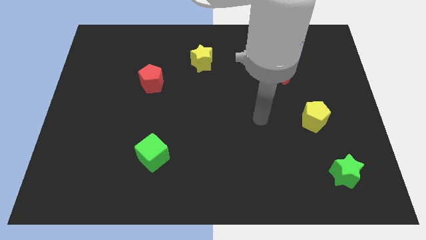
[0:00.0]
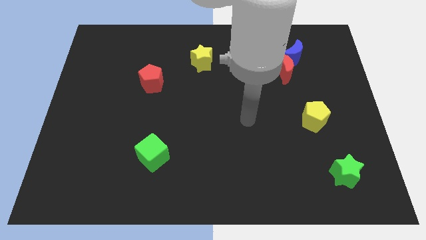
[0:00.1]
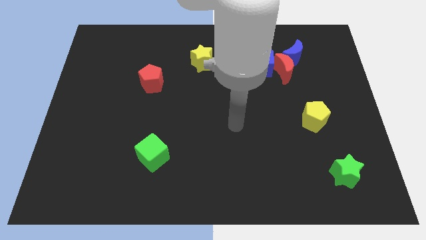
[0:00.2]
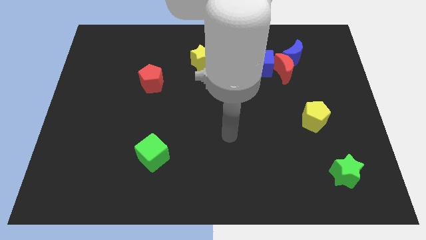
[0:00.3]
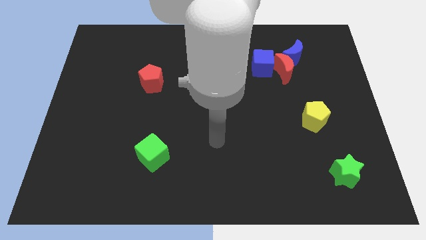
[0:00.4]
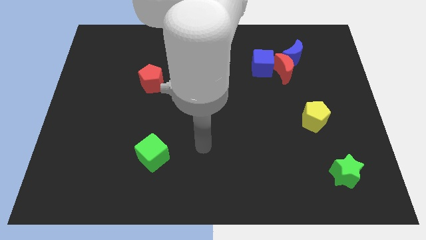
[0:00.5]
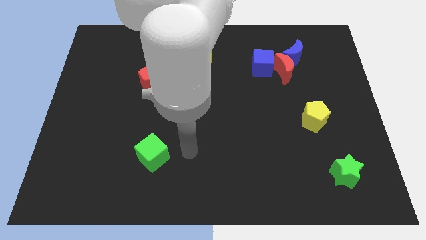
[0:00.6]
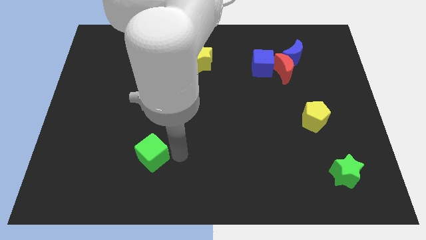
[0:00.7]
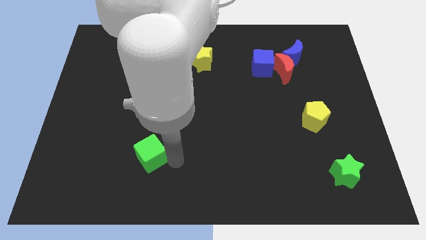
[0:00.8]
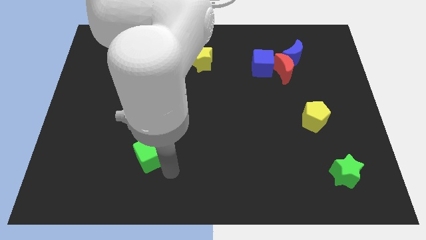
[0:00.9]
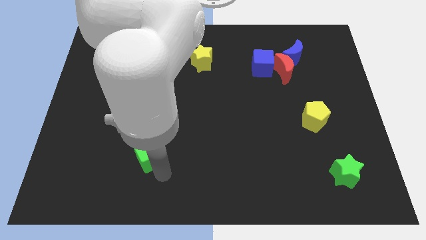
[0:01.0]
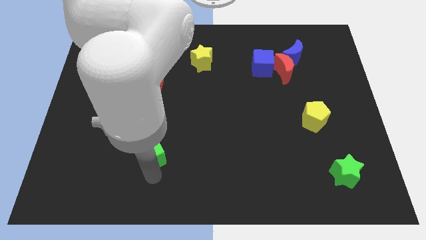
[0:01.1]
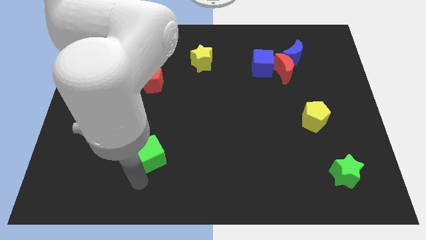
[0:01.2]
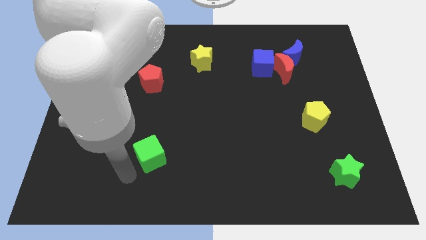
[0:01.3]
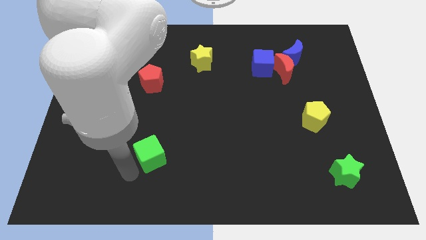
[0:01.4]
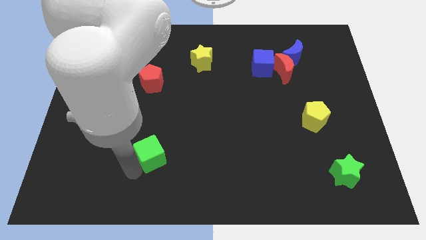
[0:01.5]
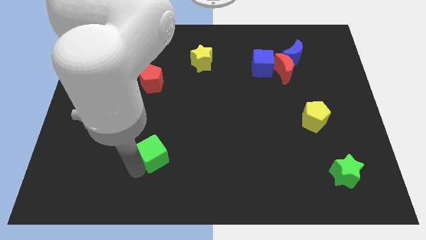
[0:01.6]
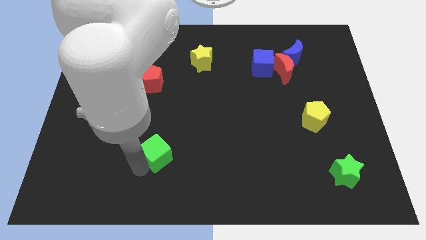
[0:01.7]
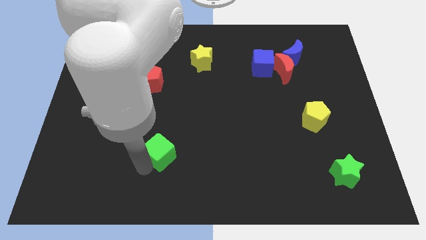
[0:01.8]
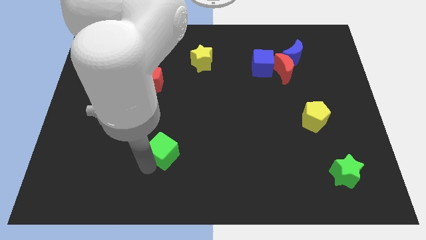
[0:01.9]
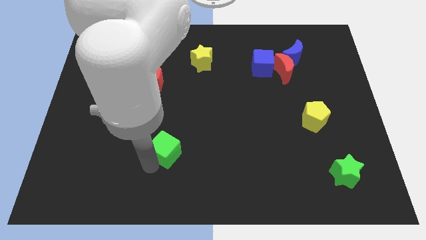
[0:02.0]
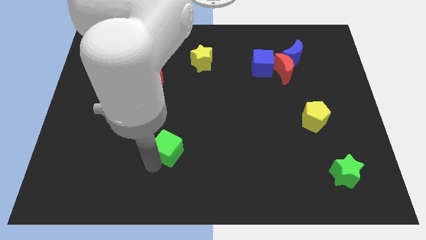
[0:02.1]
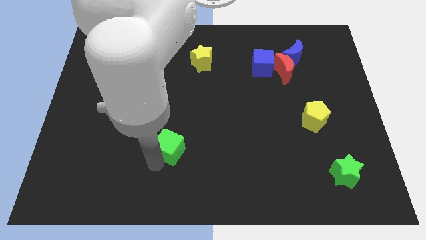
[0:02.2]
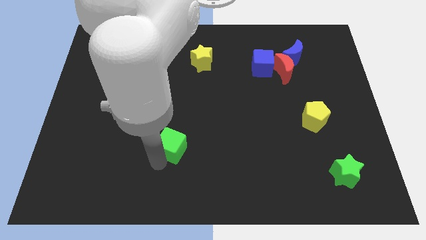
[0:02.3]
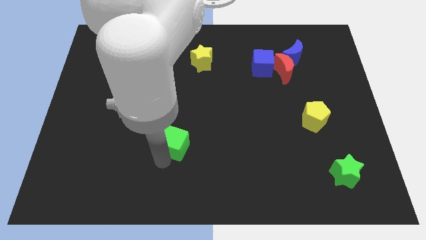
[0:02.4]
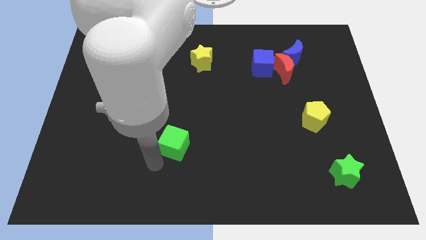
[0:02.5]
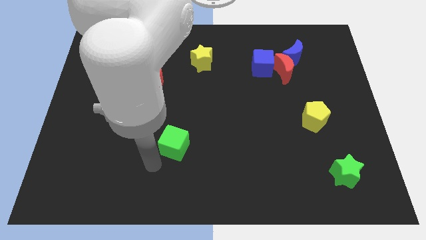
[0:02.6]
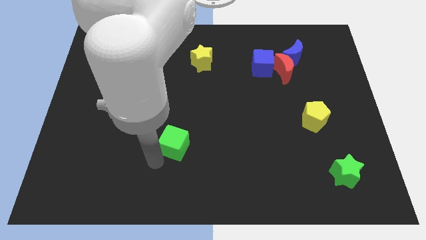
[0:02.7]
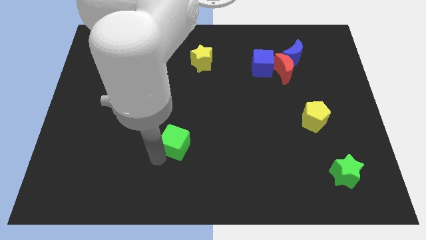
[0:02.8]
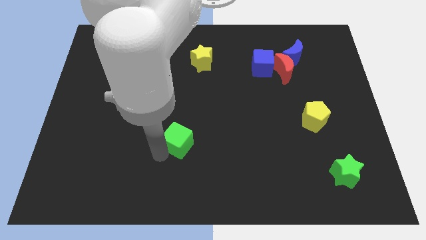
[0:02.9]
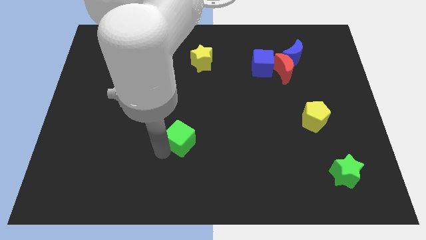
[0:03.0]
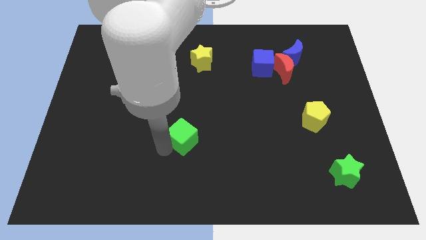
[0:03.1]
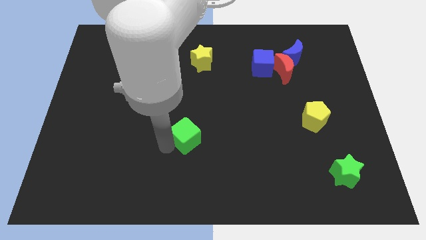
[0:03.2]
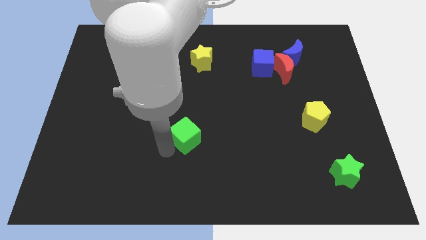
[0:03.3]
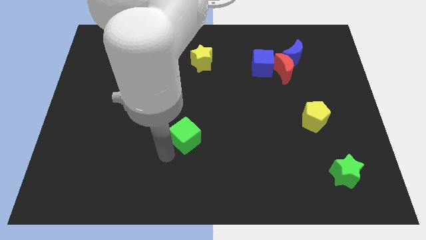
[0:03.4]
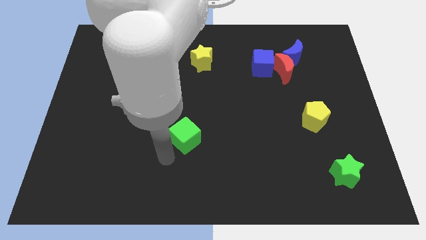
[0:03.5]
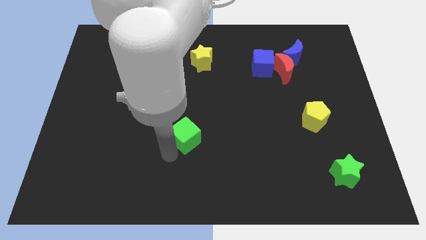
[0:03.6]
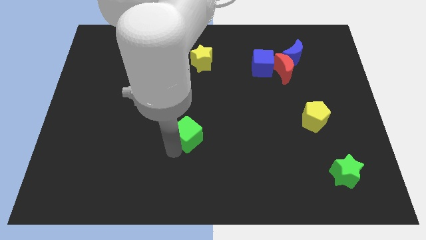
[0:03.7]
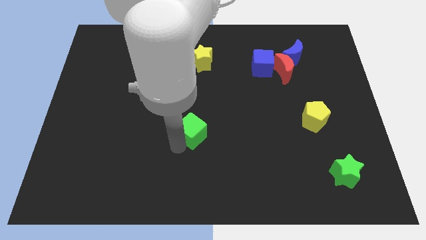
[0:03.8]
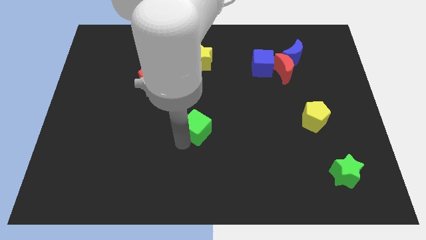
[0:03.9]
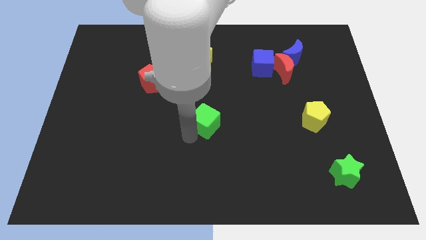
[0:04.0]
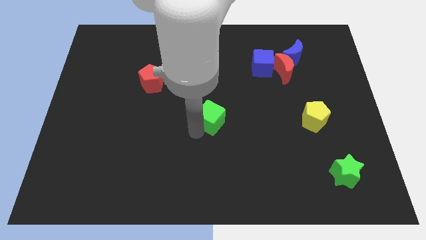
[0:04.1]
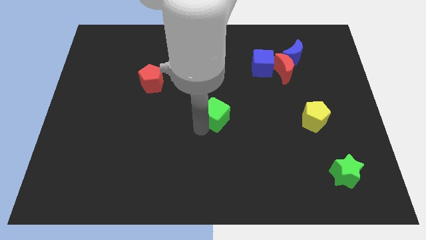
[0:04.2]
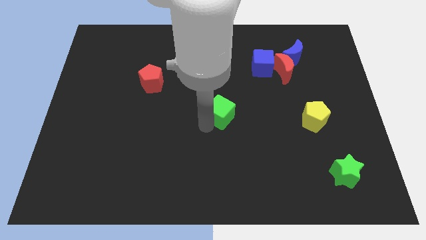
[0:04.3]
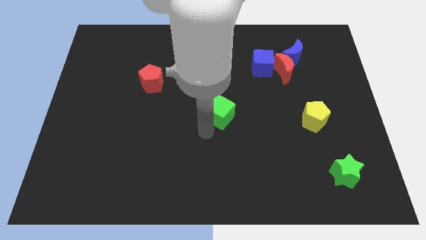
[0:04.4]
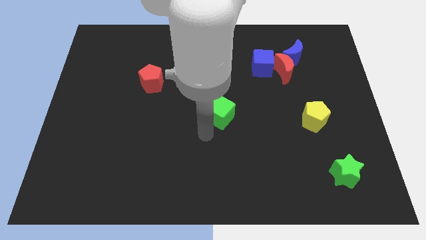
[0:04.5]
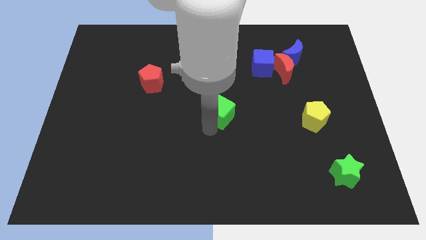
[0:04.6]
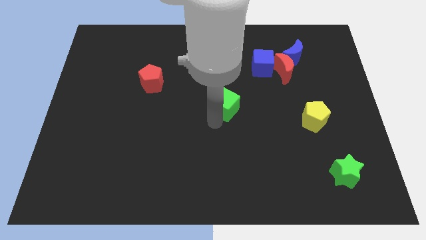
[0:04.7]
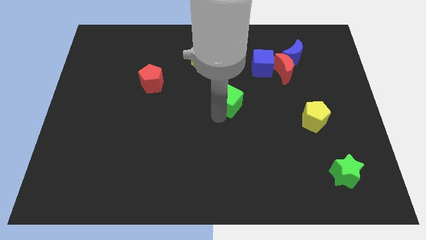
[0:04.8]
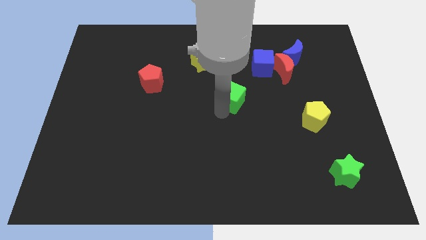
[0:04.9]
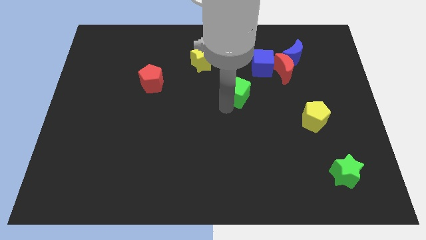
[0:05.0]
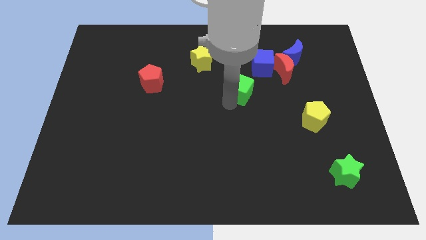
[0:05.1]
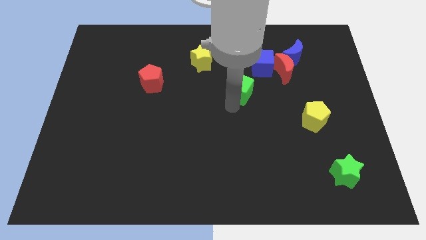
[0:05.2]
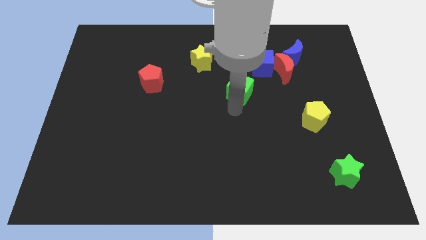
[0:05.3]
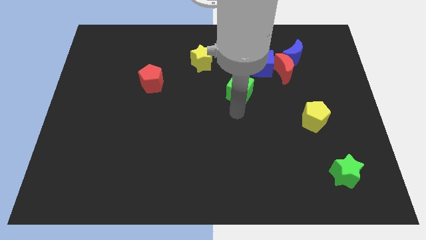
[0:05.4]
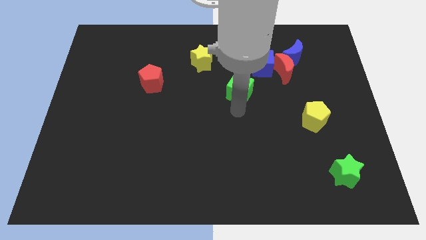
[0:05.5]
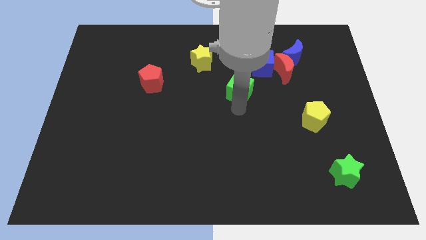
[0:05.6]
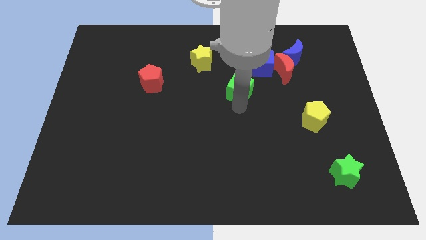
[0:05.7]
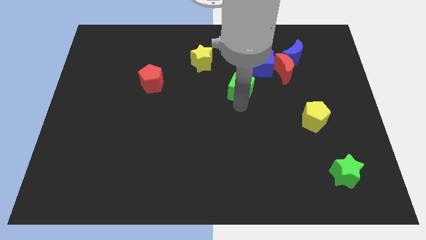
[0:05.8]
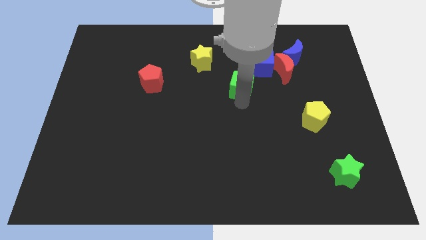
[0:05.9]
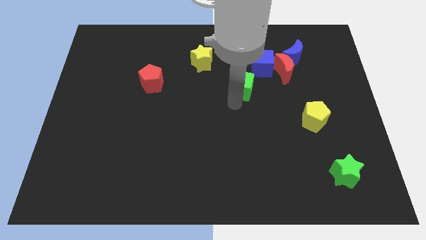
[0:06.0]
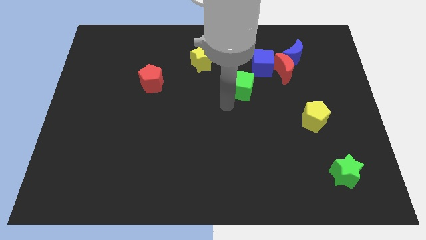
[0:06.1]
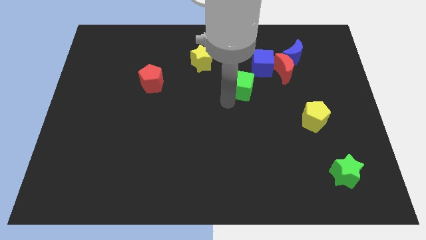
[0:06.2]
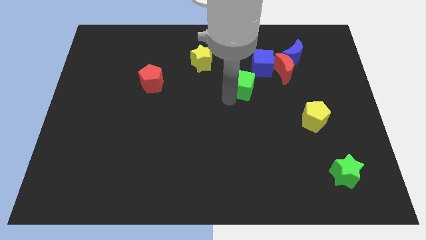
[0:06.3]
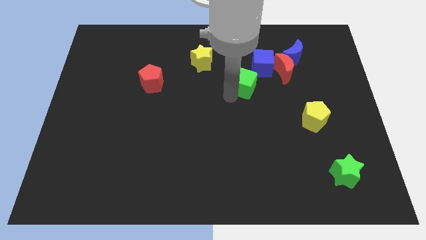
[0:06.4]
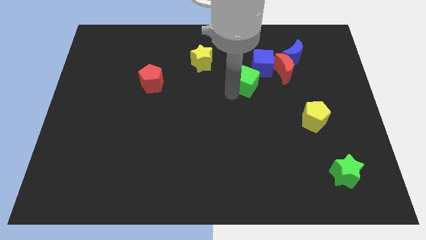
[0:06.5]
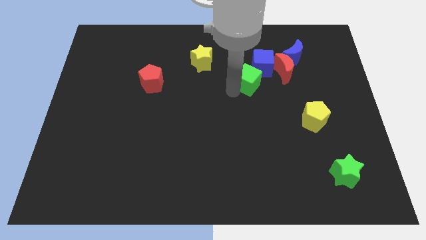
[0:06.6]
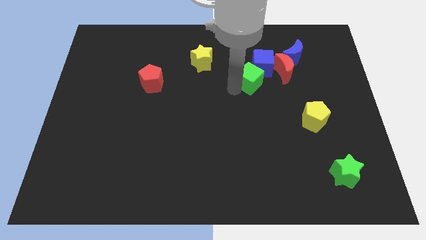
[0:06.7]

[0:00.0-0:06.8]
put the green cube towards the blue cube

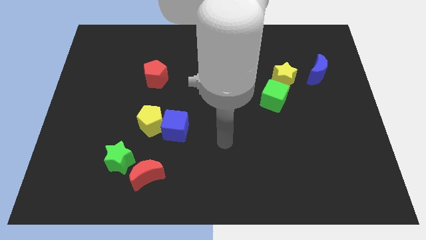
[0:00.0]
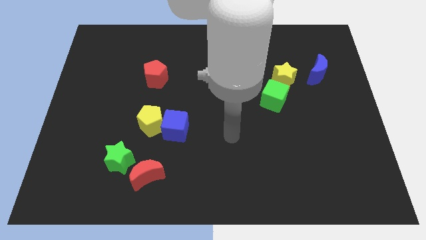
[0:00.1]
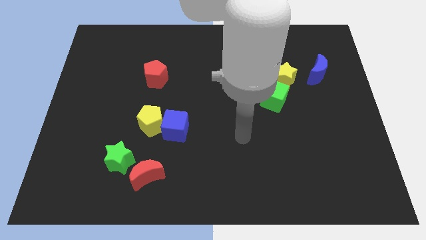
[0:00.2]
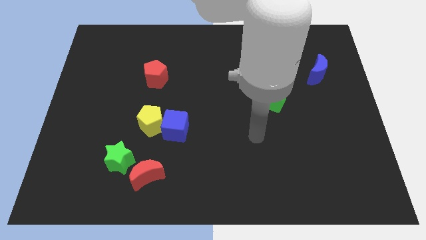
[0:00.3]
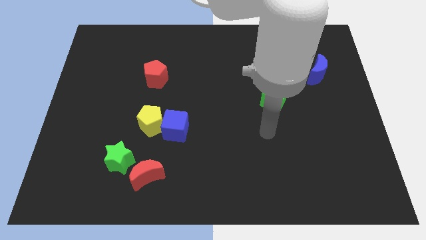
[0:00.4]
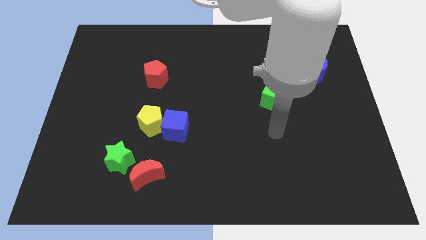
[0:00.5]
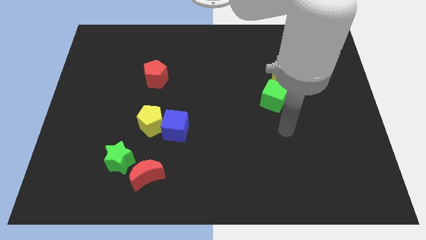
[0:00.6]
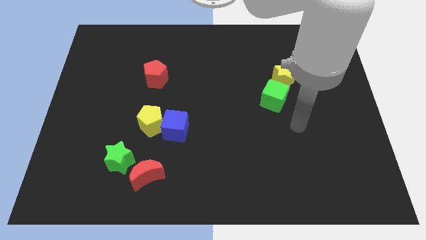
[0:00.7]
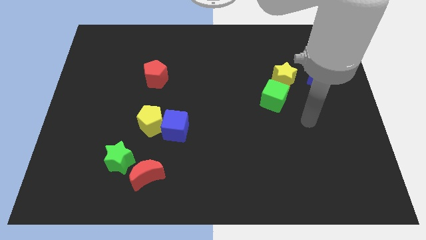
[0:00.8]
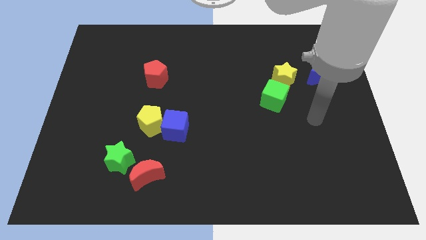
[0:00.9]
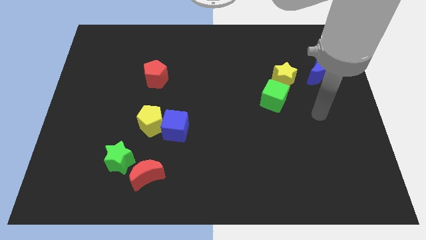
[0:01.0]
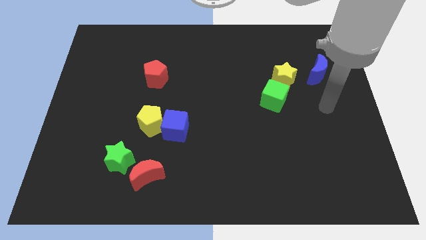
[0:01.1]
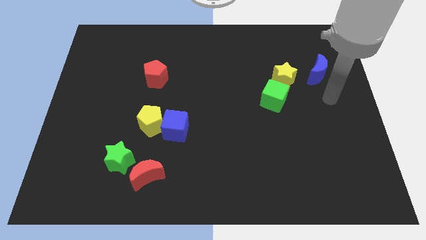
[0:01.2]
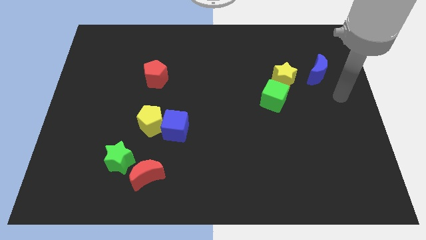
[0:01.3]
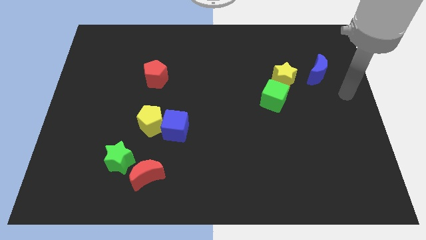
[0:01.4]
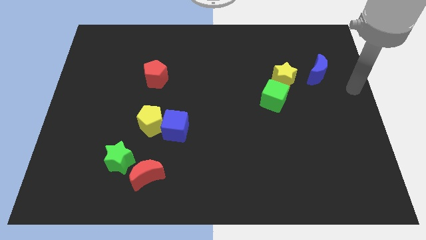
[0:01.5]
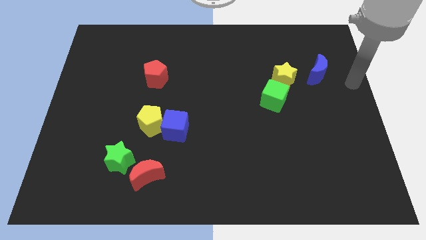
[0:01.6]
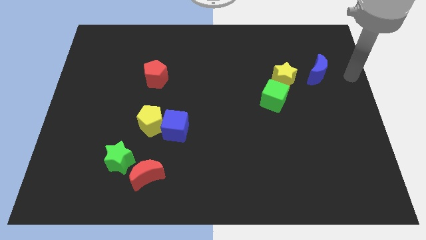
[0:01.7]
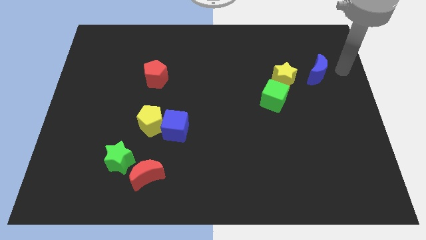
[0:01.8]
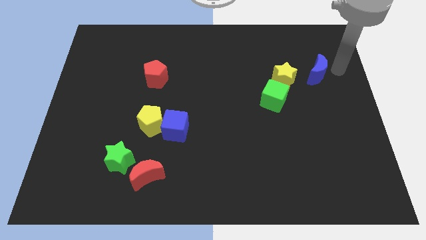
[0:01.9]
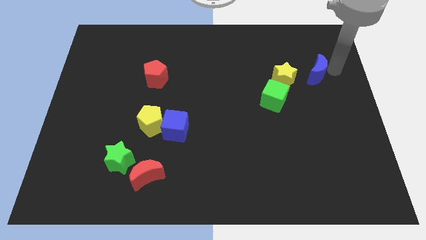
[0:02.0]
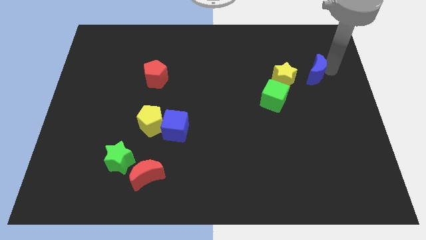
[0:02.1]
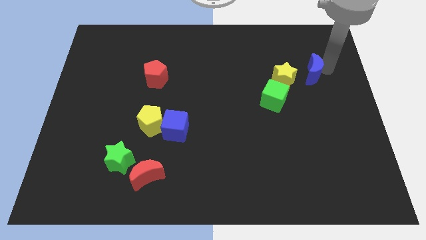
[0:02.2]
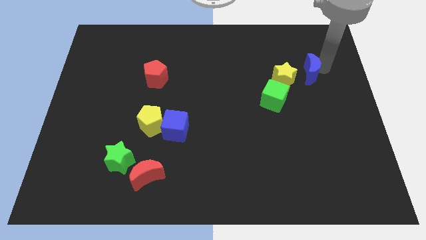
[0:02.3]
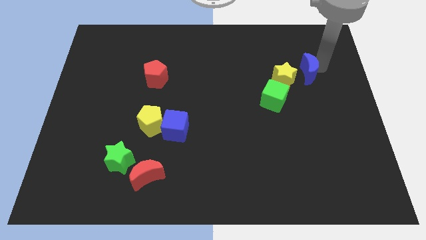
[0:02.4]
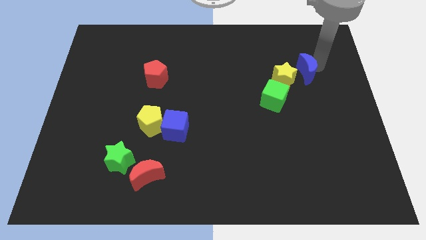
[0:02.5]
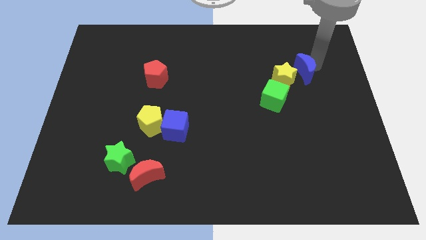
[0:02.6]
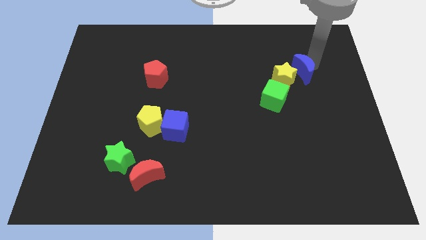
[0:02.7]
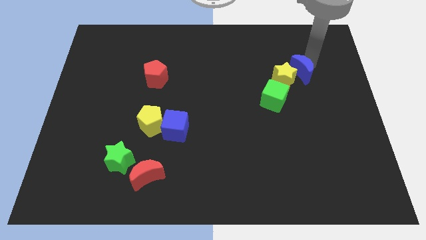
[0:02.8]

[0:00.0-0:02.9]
put the blue moon close to the yellow star
